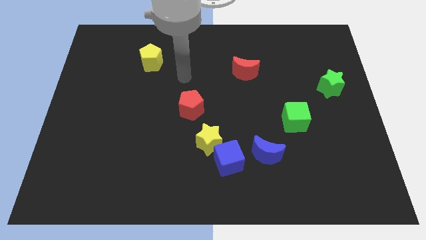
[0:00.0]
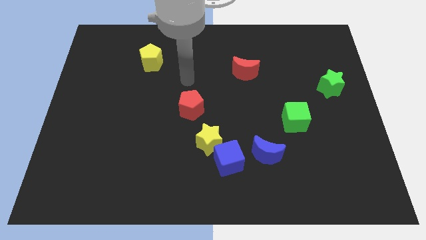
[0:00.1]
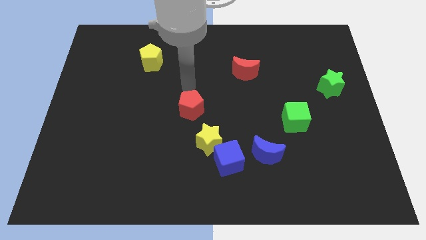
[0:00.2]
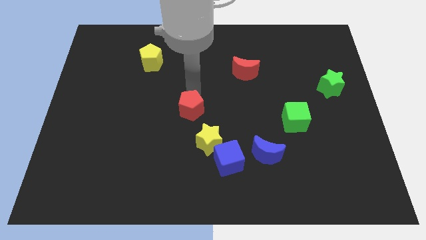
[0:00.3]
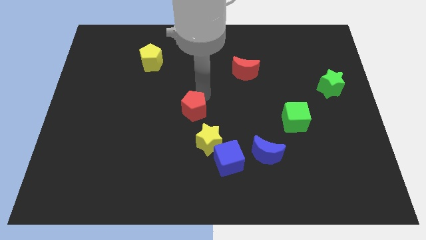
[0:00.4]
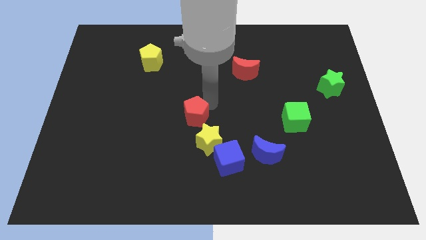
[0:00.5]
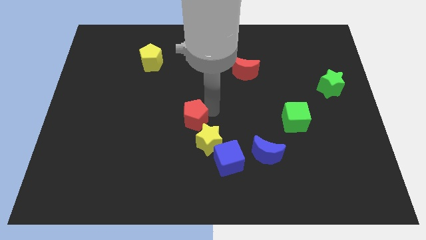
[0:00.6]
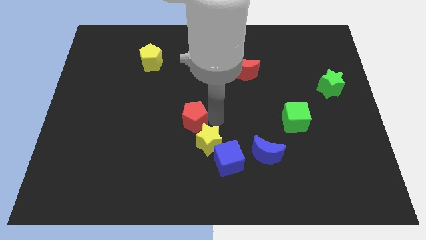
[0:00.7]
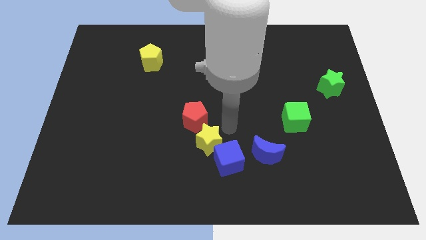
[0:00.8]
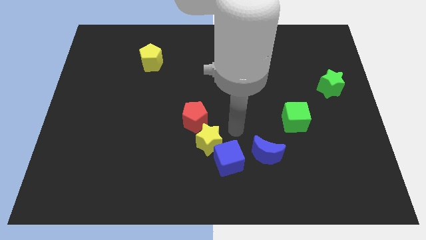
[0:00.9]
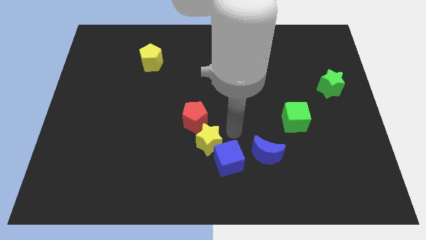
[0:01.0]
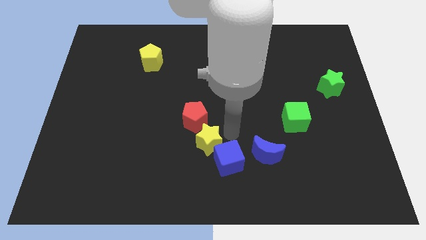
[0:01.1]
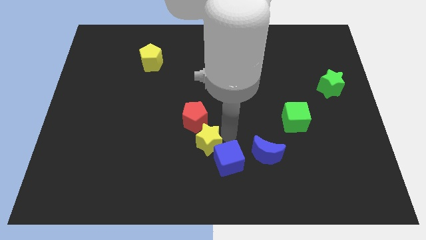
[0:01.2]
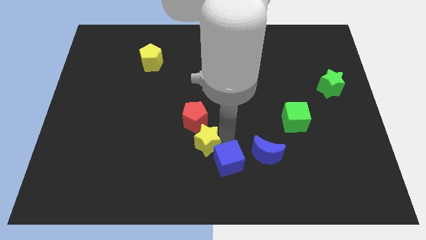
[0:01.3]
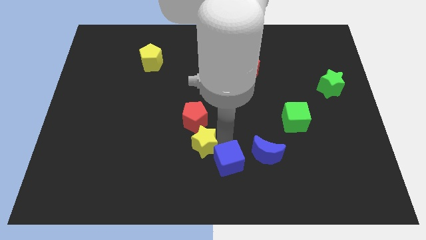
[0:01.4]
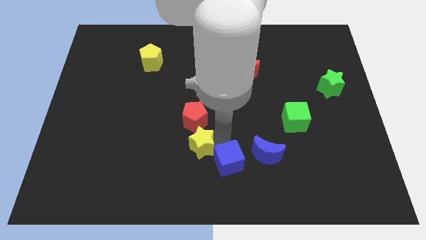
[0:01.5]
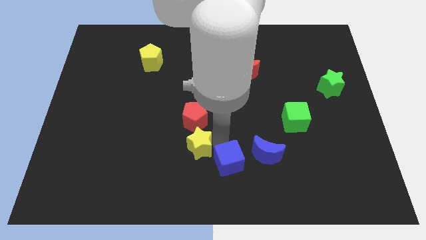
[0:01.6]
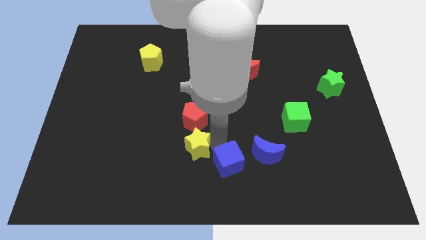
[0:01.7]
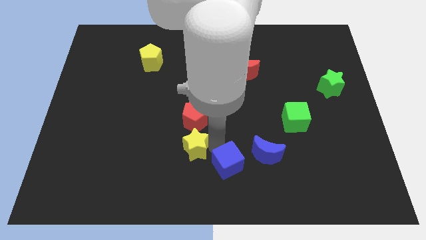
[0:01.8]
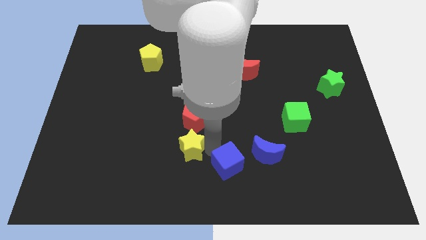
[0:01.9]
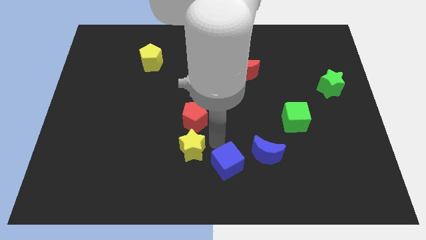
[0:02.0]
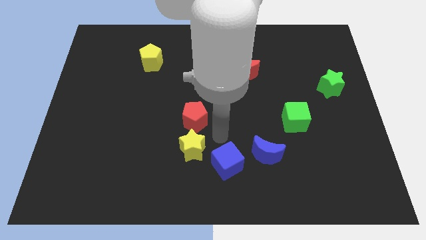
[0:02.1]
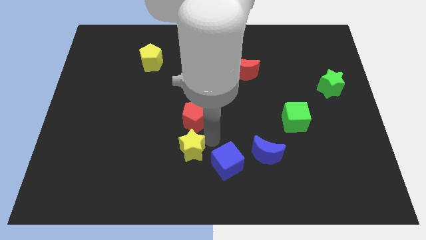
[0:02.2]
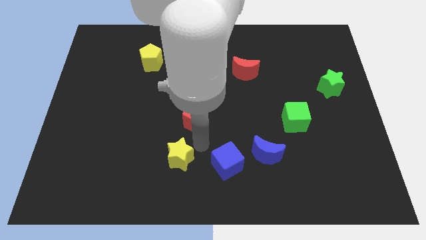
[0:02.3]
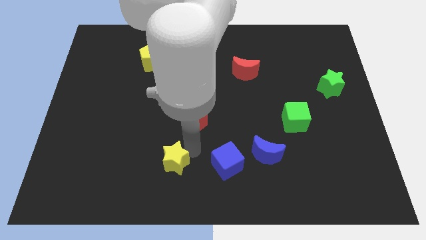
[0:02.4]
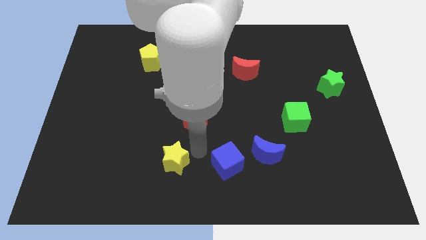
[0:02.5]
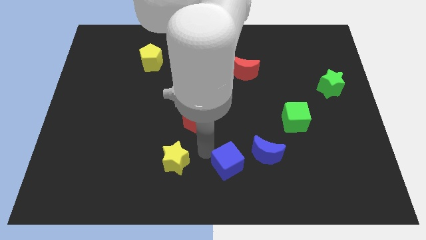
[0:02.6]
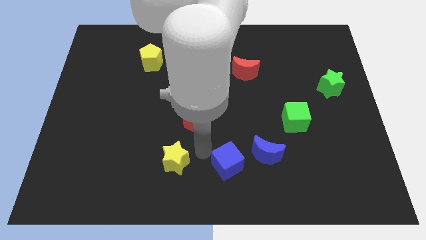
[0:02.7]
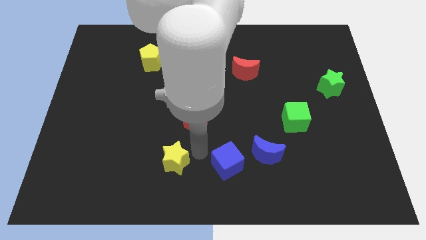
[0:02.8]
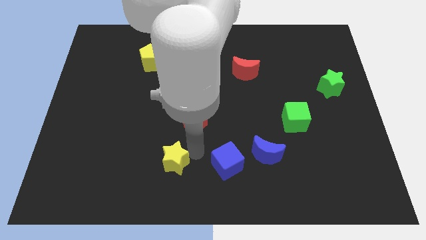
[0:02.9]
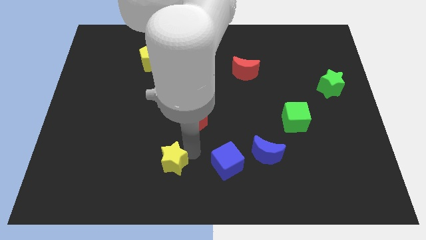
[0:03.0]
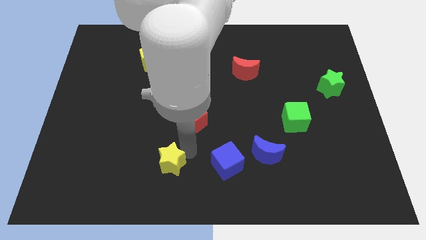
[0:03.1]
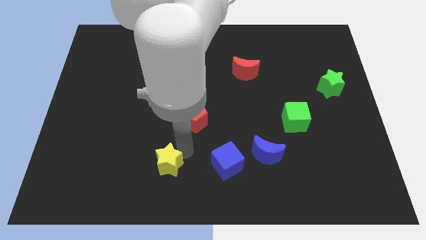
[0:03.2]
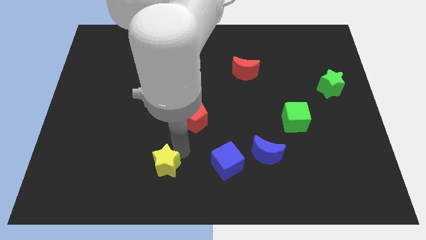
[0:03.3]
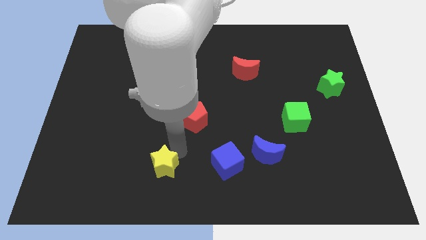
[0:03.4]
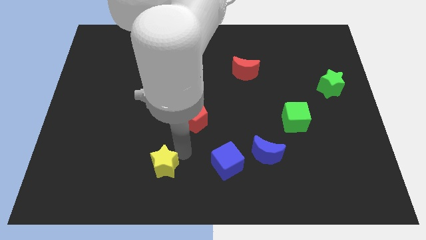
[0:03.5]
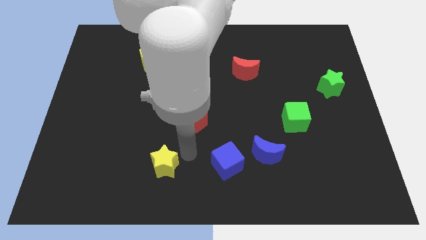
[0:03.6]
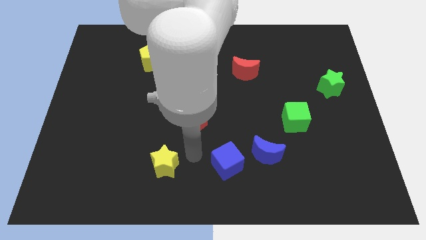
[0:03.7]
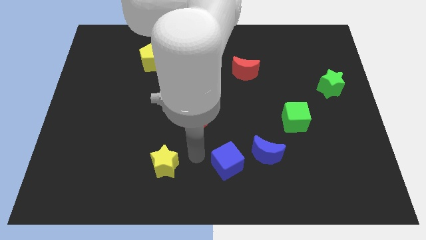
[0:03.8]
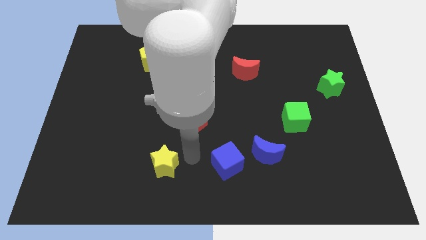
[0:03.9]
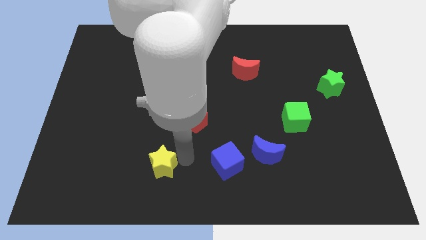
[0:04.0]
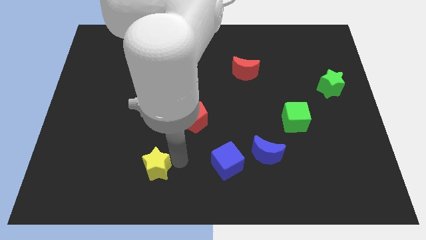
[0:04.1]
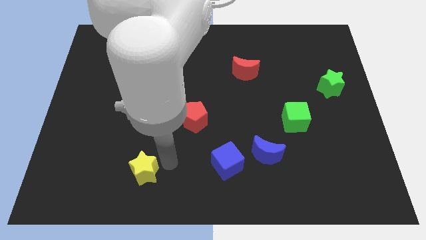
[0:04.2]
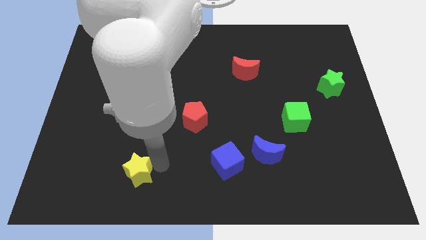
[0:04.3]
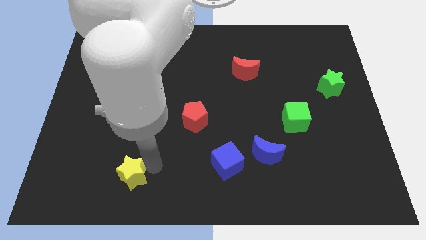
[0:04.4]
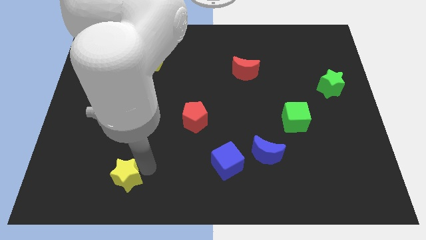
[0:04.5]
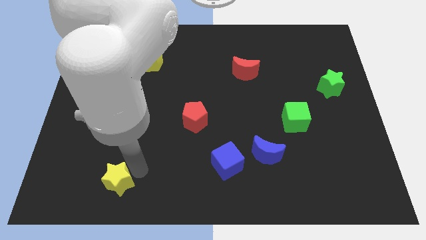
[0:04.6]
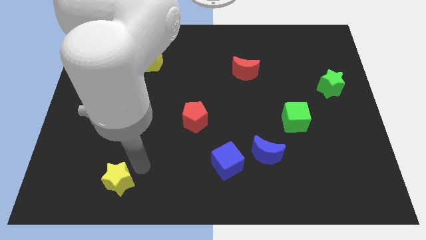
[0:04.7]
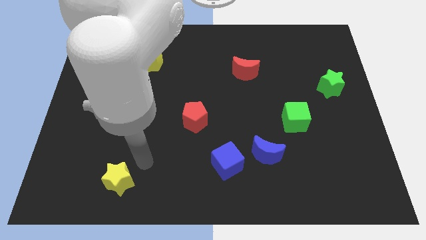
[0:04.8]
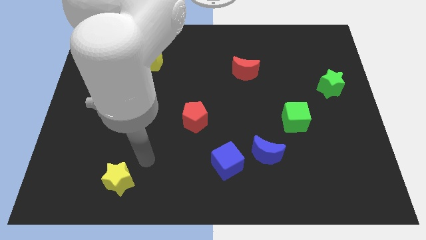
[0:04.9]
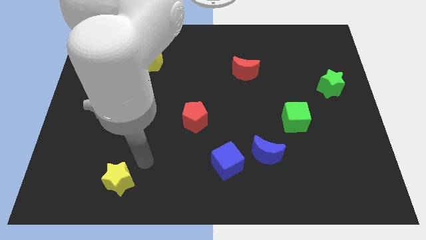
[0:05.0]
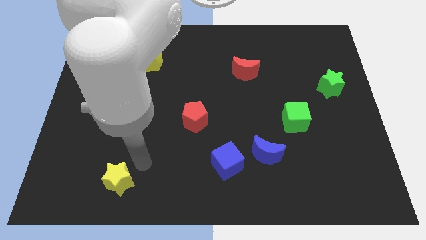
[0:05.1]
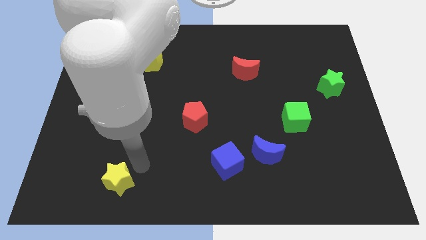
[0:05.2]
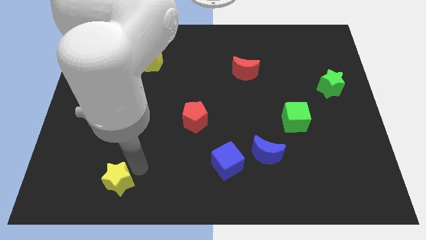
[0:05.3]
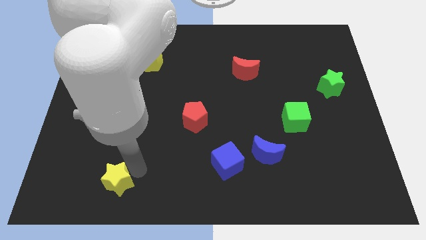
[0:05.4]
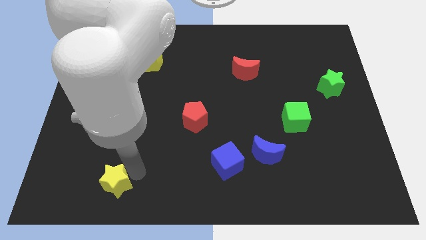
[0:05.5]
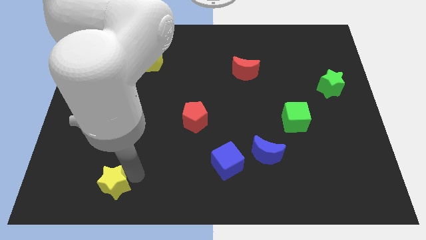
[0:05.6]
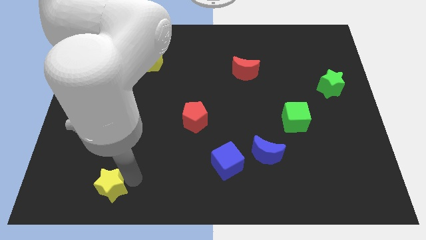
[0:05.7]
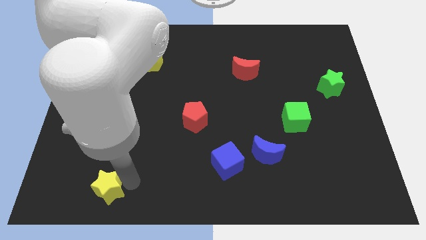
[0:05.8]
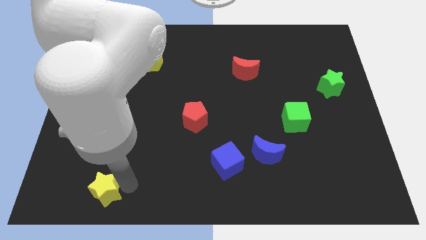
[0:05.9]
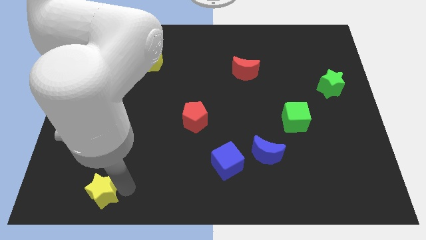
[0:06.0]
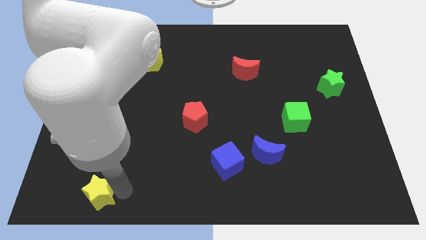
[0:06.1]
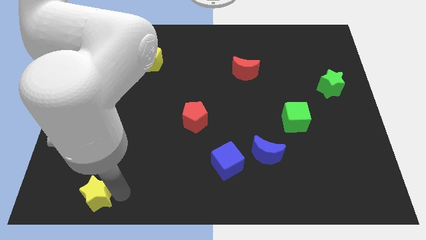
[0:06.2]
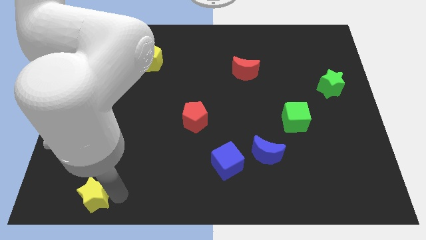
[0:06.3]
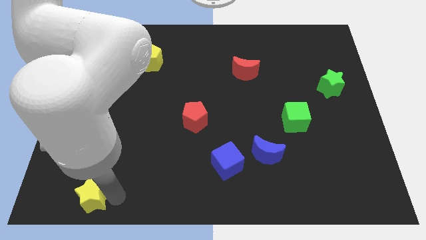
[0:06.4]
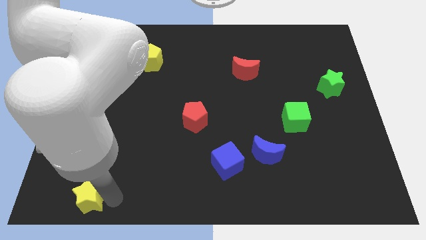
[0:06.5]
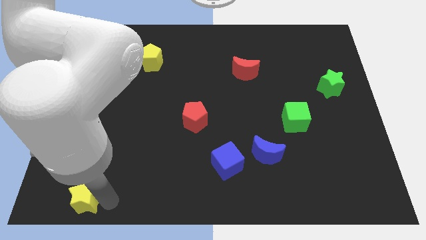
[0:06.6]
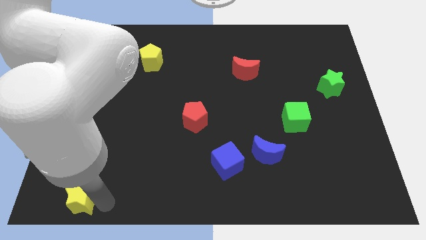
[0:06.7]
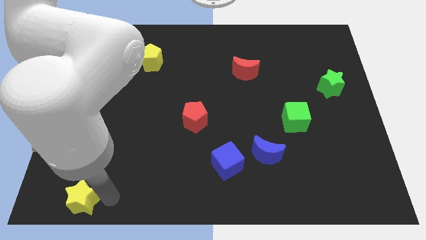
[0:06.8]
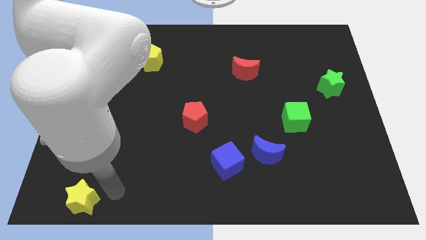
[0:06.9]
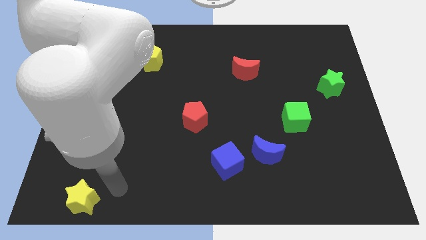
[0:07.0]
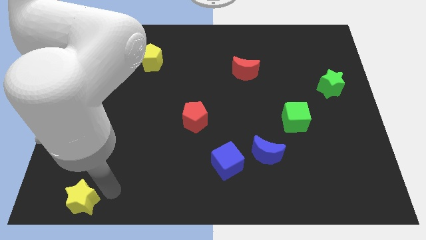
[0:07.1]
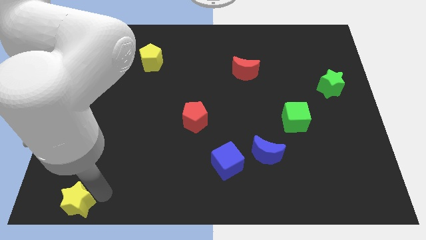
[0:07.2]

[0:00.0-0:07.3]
slide the yellow star to the bottom left
